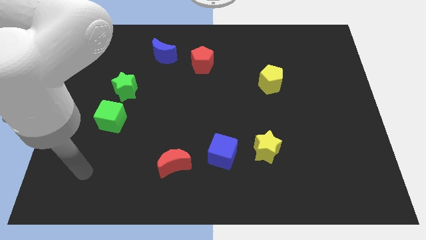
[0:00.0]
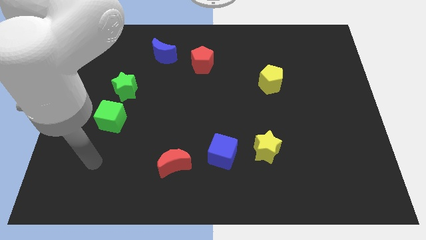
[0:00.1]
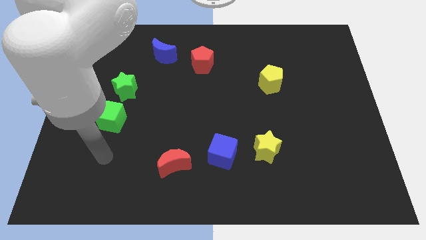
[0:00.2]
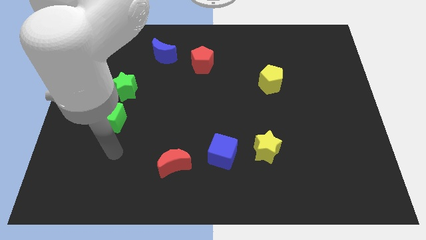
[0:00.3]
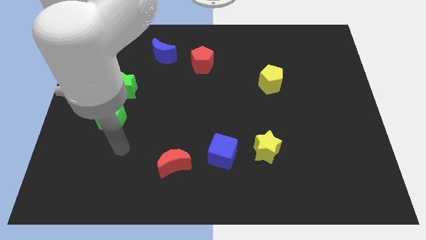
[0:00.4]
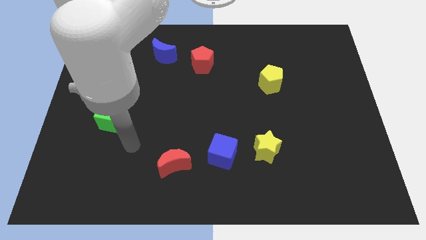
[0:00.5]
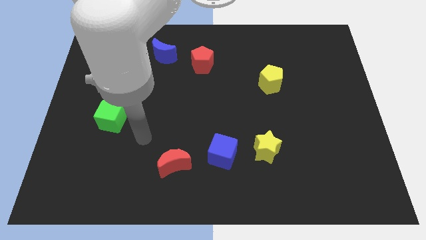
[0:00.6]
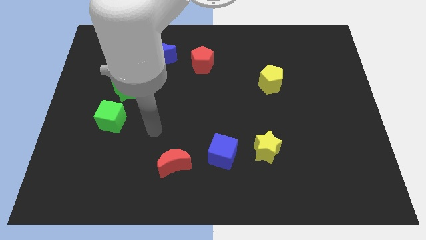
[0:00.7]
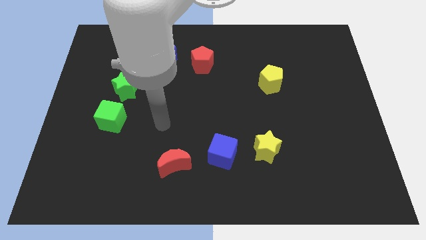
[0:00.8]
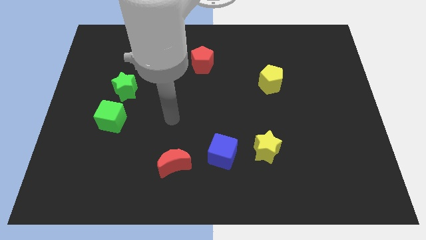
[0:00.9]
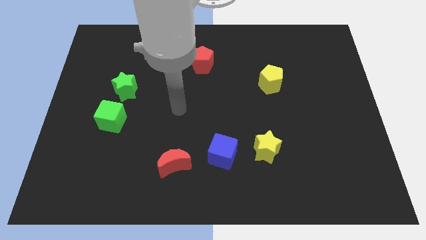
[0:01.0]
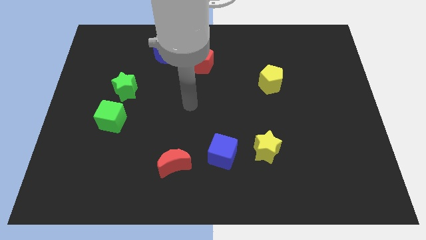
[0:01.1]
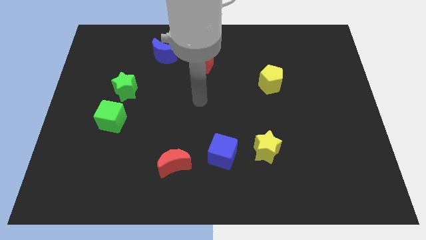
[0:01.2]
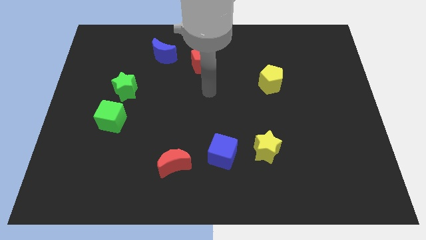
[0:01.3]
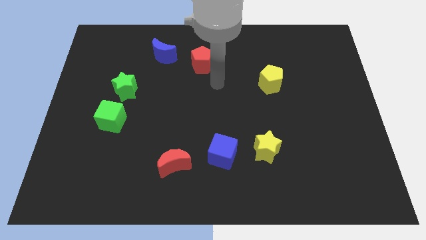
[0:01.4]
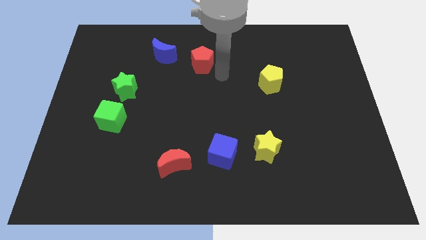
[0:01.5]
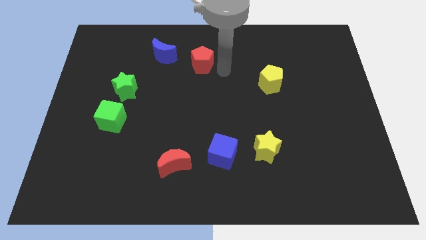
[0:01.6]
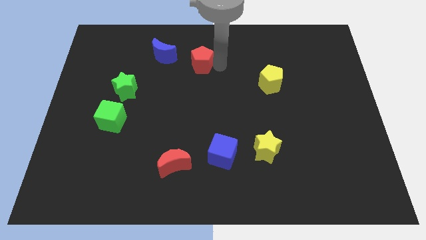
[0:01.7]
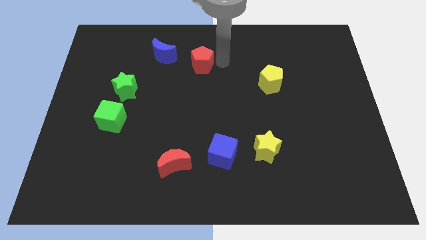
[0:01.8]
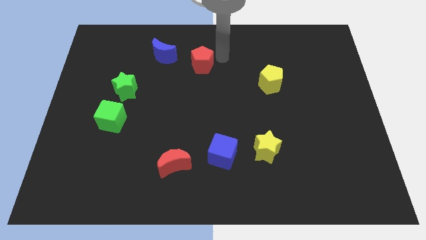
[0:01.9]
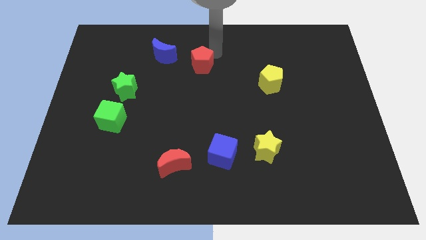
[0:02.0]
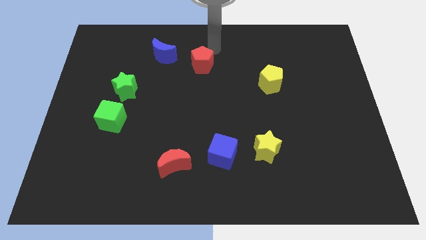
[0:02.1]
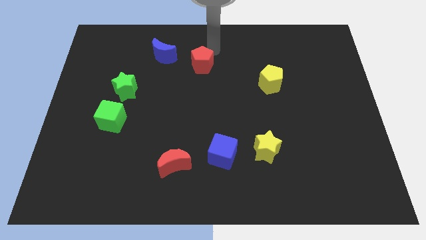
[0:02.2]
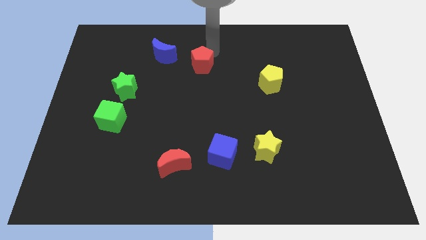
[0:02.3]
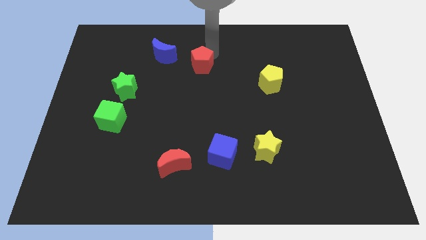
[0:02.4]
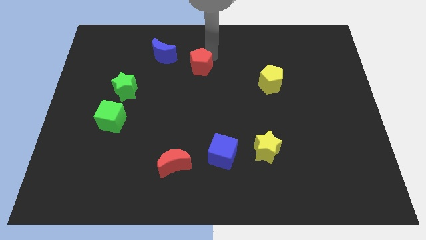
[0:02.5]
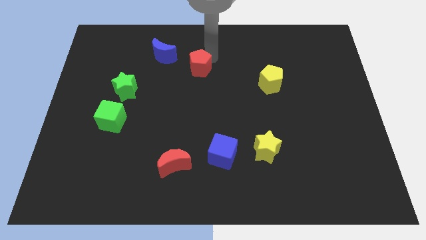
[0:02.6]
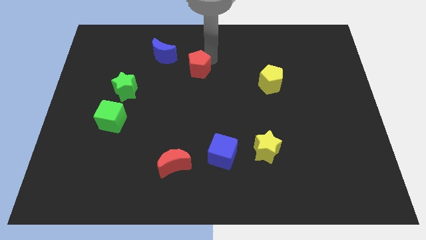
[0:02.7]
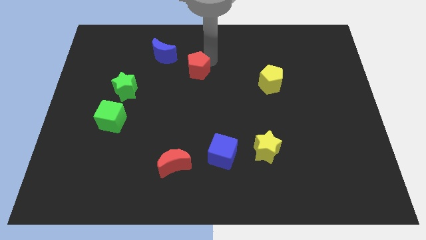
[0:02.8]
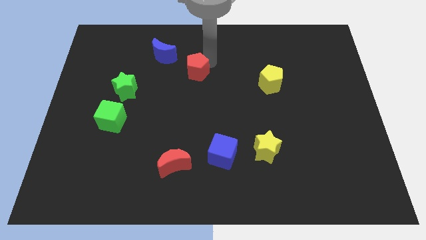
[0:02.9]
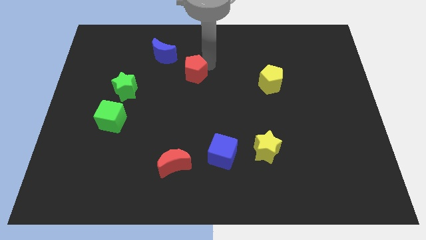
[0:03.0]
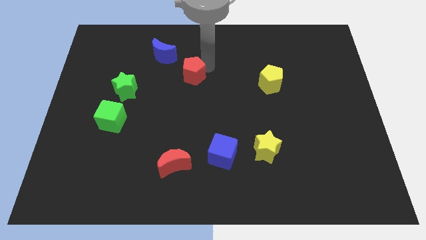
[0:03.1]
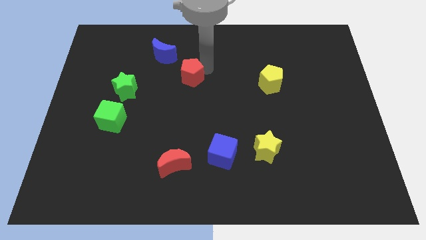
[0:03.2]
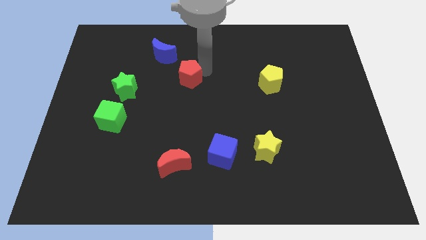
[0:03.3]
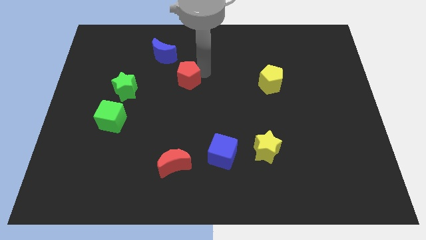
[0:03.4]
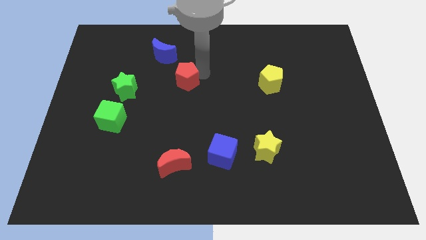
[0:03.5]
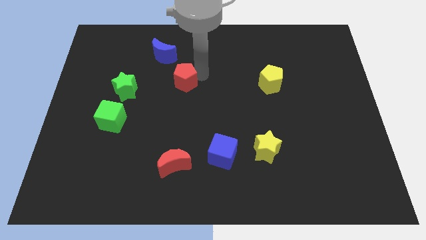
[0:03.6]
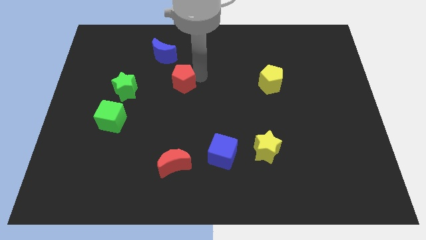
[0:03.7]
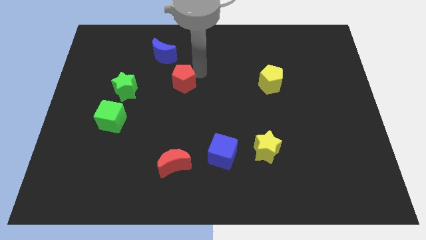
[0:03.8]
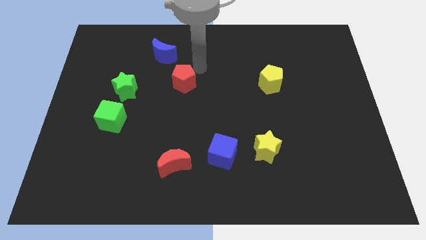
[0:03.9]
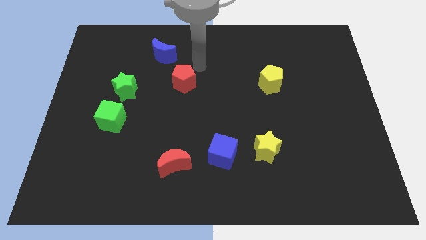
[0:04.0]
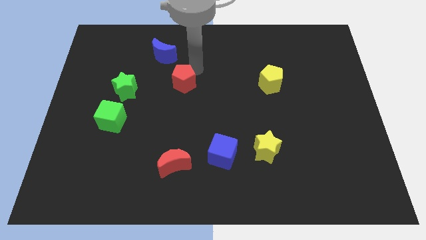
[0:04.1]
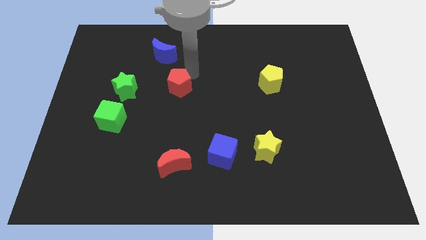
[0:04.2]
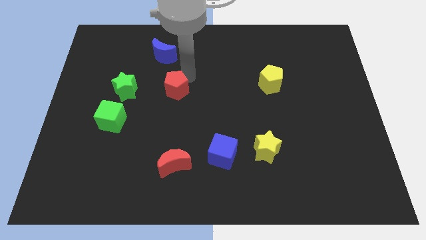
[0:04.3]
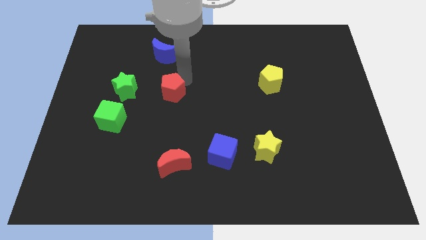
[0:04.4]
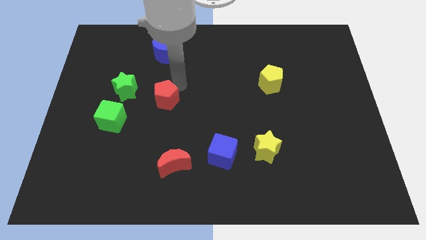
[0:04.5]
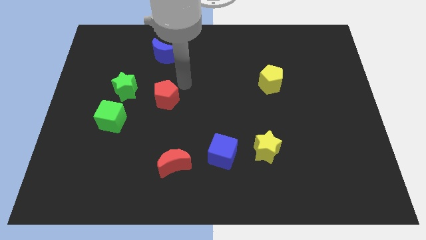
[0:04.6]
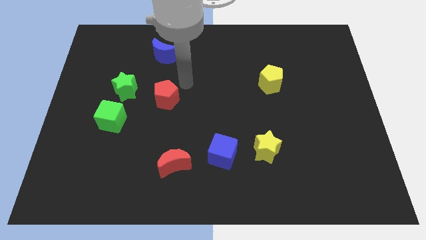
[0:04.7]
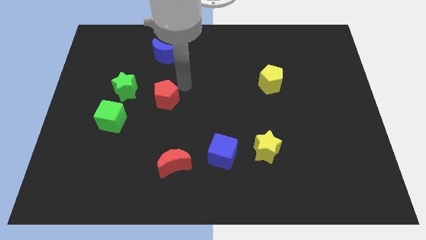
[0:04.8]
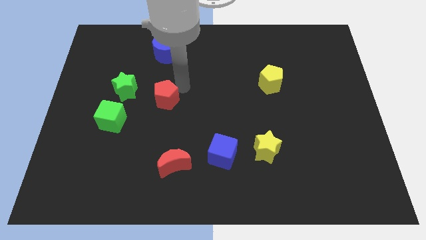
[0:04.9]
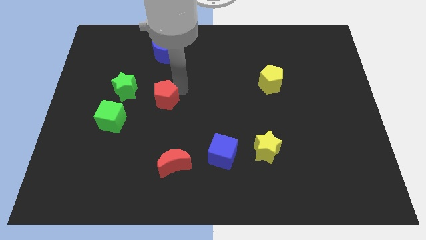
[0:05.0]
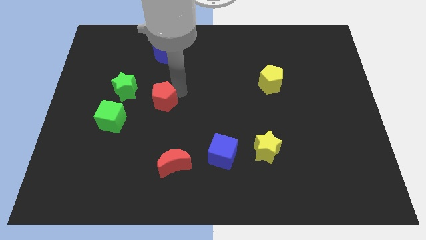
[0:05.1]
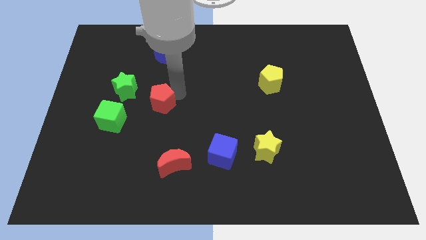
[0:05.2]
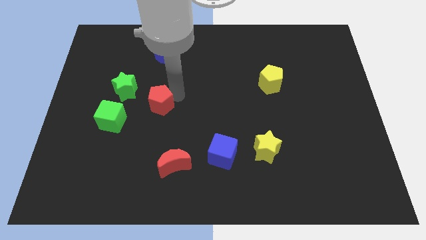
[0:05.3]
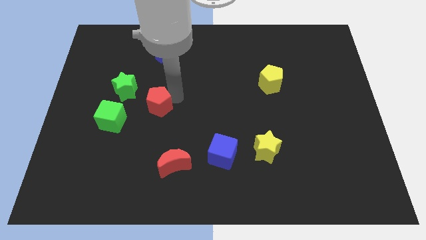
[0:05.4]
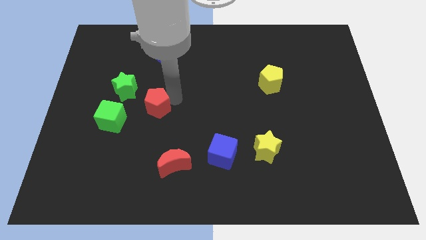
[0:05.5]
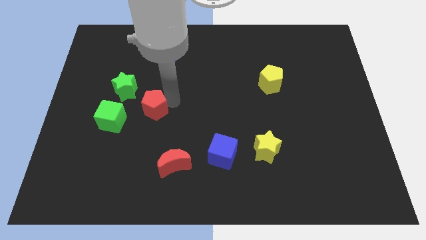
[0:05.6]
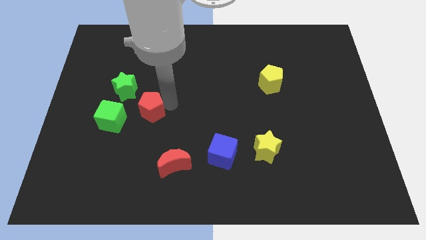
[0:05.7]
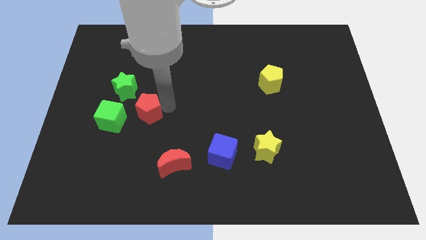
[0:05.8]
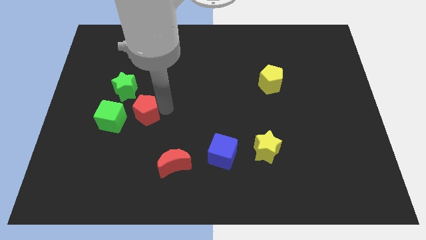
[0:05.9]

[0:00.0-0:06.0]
slide the red pentagon downwards and left

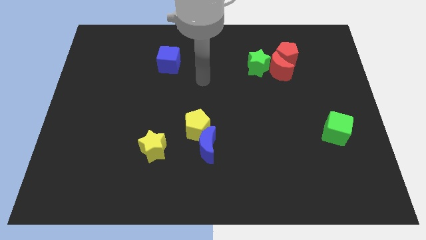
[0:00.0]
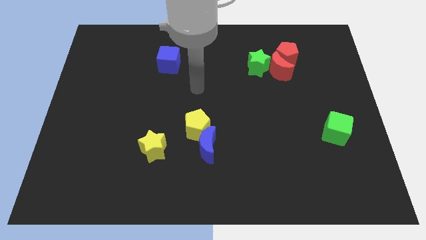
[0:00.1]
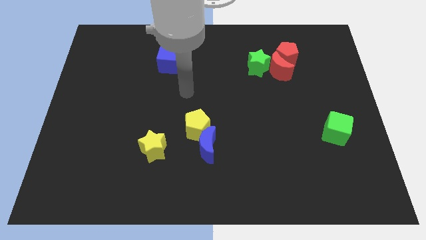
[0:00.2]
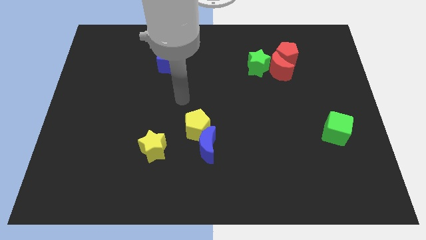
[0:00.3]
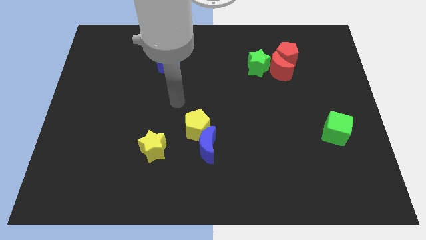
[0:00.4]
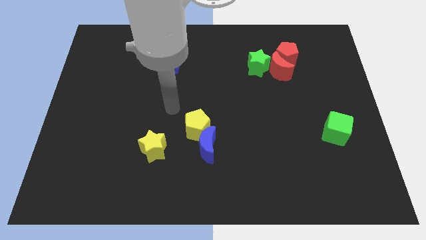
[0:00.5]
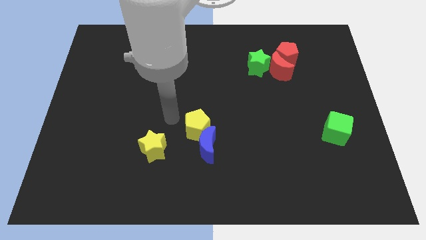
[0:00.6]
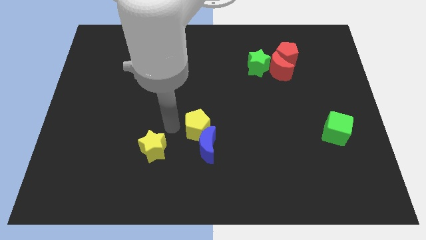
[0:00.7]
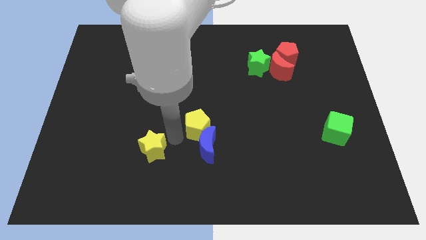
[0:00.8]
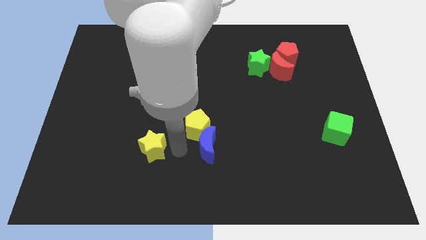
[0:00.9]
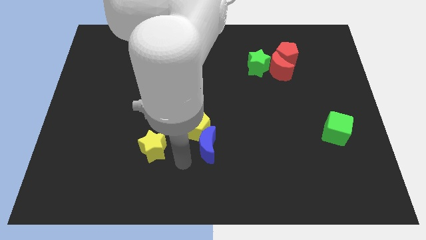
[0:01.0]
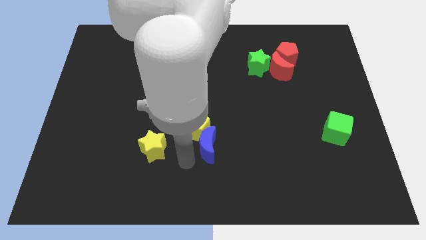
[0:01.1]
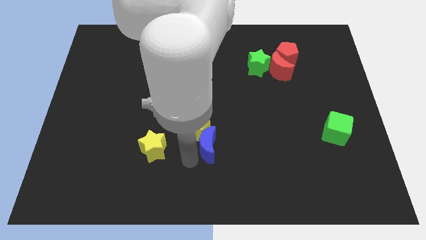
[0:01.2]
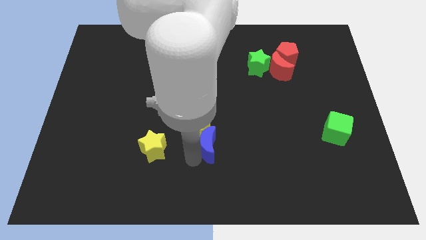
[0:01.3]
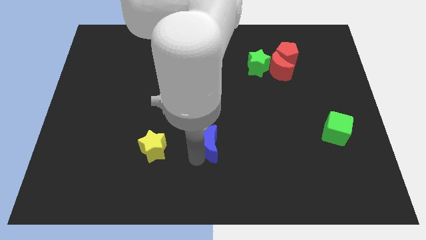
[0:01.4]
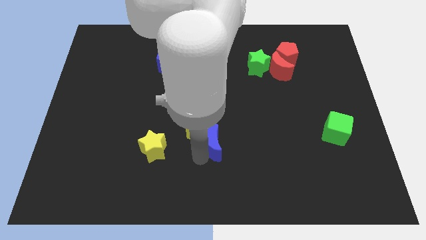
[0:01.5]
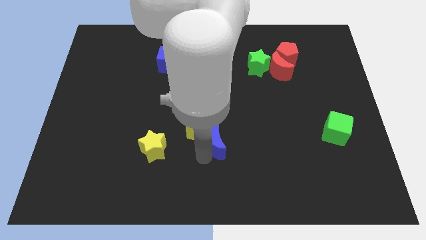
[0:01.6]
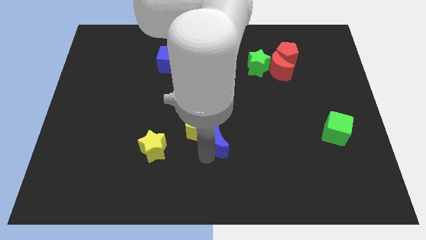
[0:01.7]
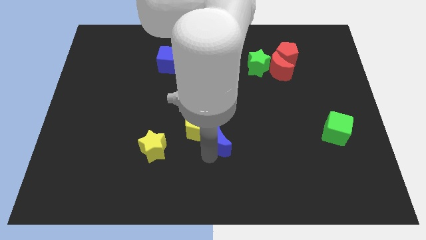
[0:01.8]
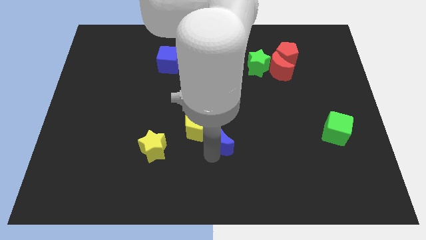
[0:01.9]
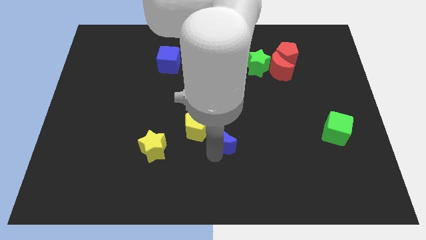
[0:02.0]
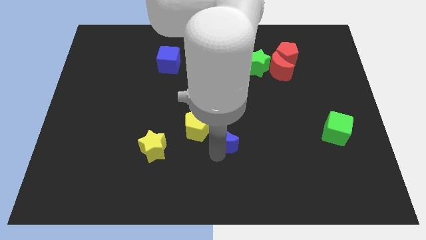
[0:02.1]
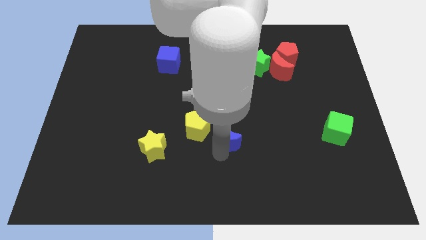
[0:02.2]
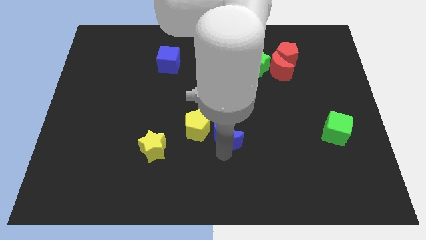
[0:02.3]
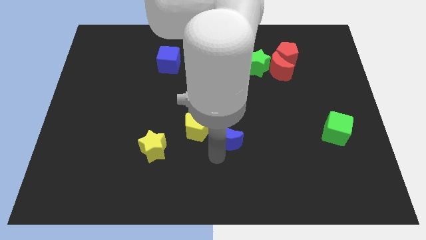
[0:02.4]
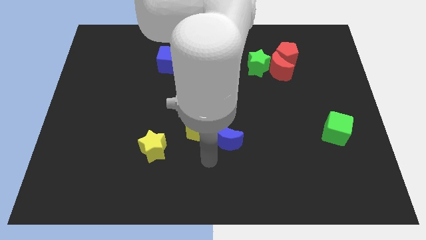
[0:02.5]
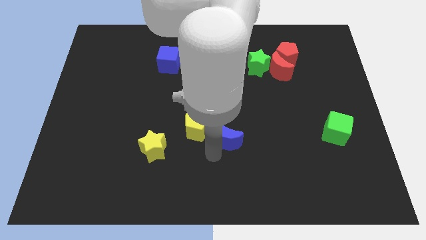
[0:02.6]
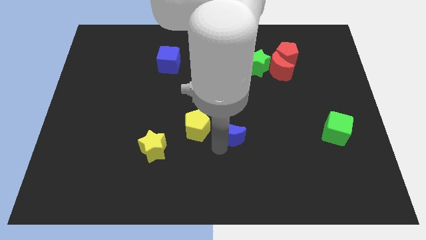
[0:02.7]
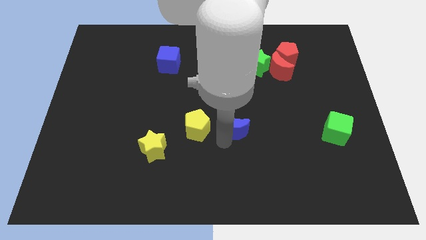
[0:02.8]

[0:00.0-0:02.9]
move the blue moon slightly up and then right
